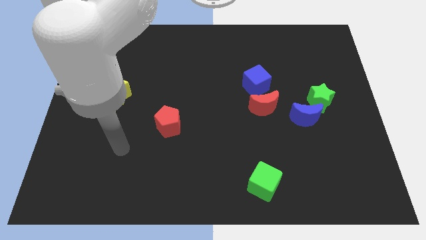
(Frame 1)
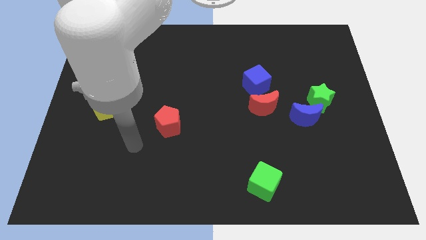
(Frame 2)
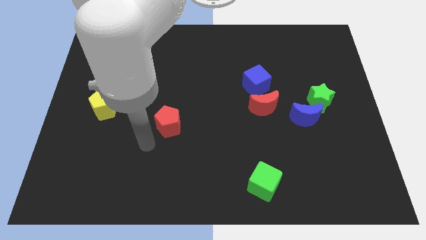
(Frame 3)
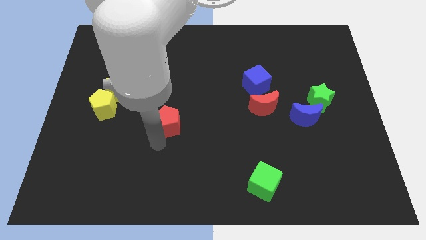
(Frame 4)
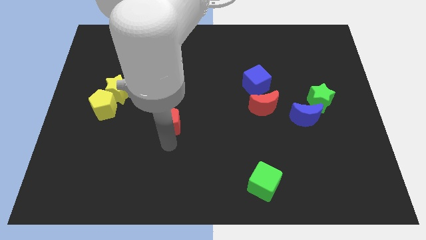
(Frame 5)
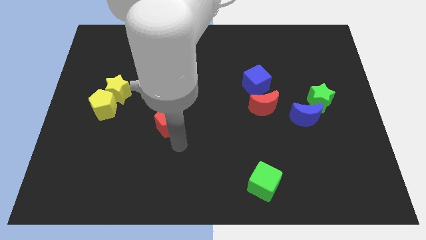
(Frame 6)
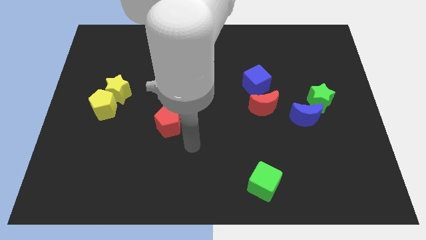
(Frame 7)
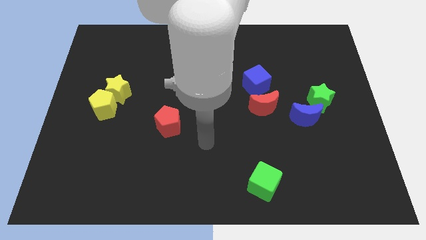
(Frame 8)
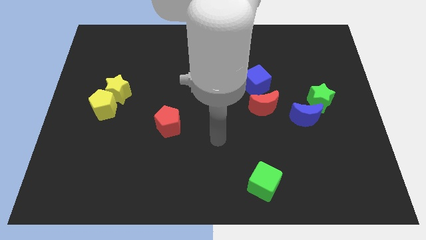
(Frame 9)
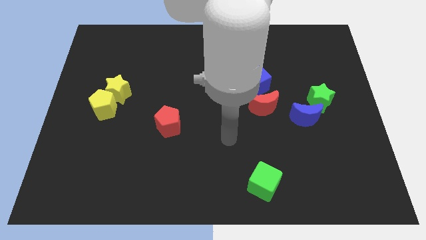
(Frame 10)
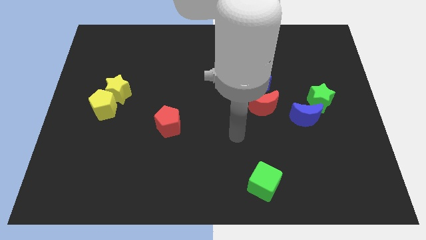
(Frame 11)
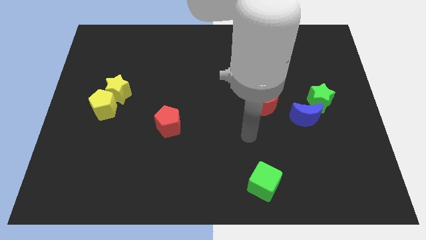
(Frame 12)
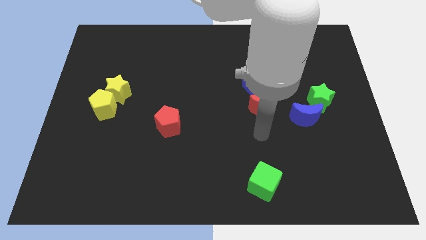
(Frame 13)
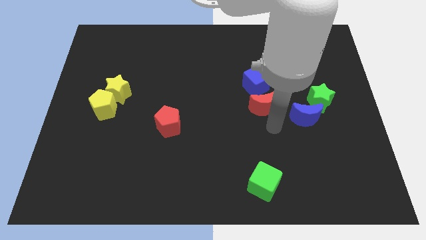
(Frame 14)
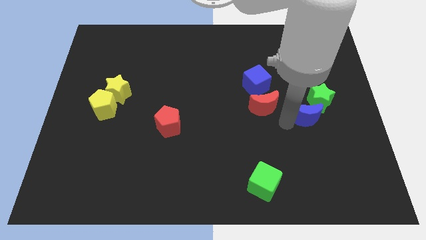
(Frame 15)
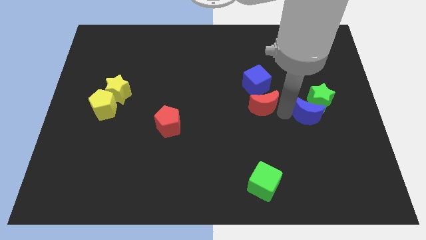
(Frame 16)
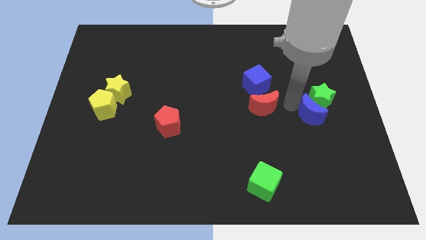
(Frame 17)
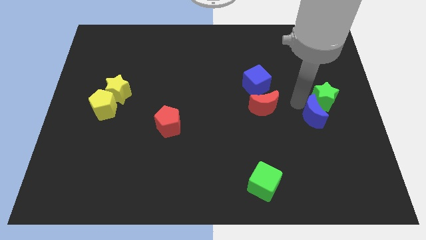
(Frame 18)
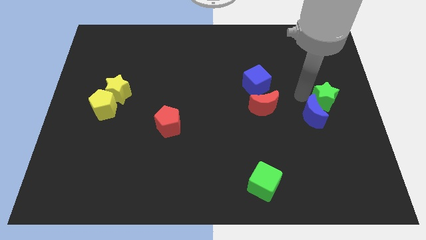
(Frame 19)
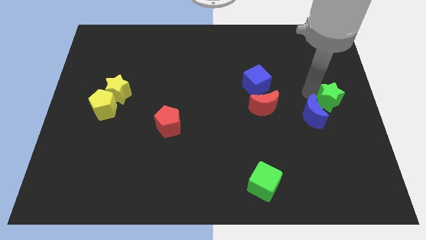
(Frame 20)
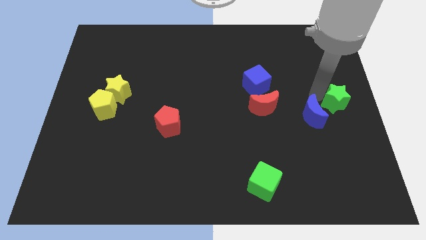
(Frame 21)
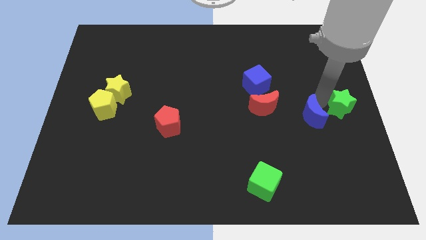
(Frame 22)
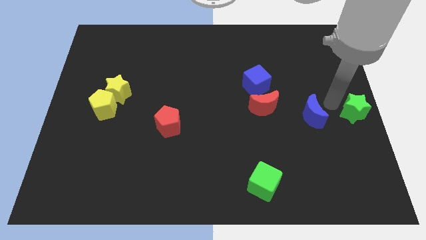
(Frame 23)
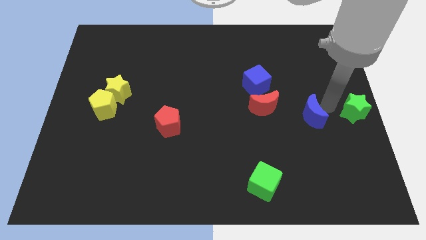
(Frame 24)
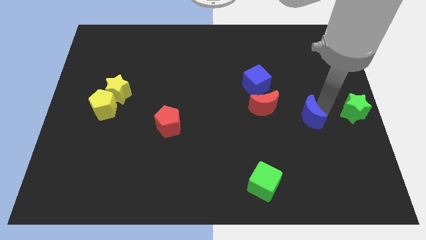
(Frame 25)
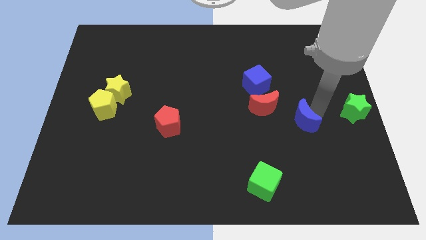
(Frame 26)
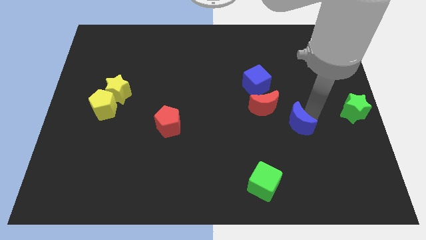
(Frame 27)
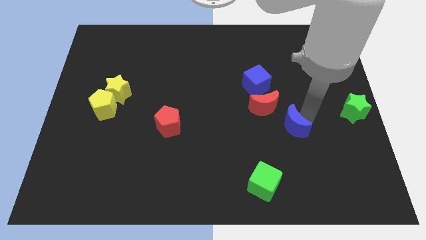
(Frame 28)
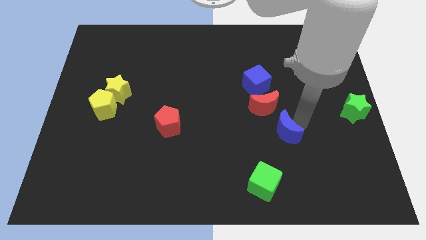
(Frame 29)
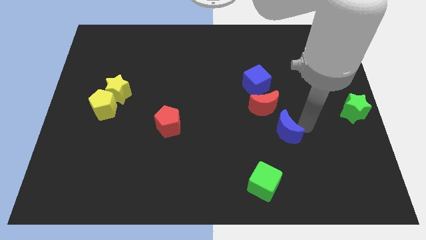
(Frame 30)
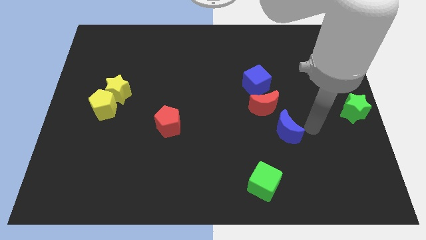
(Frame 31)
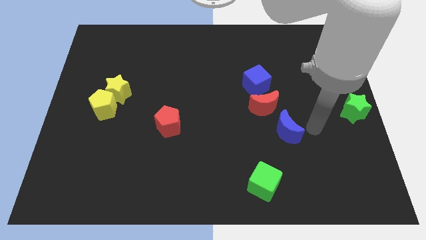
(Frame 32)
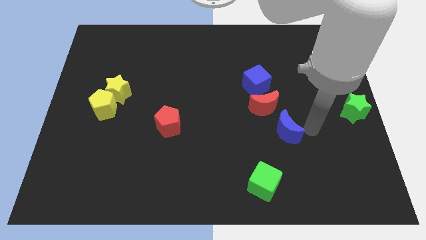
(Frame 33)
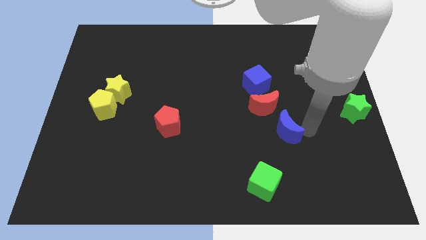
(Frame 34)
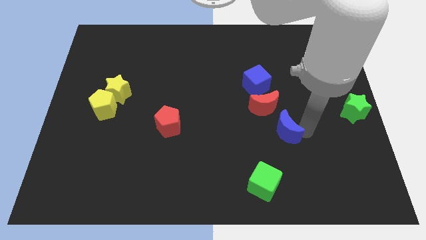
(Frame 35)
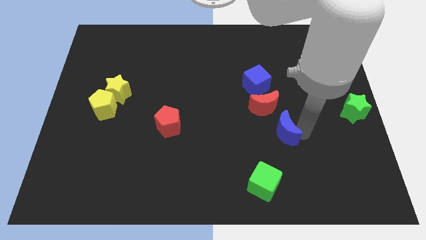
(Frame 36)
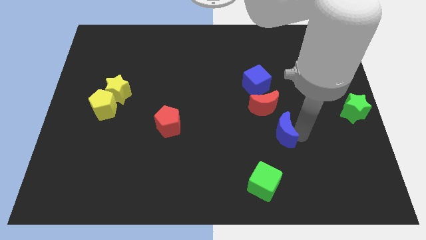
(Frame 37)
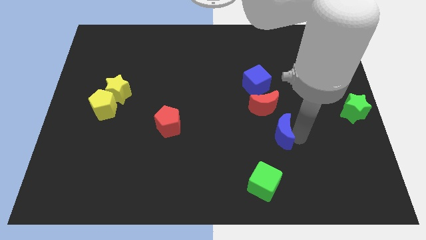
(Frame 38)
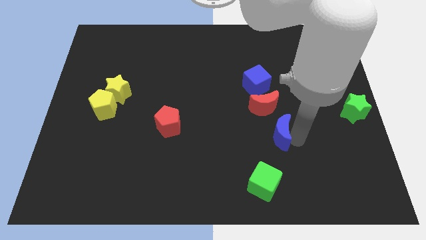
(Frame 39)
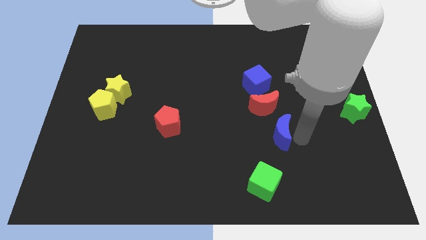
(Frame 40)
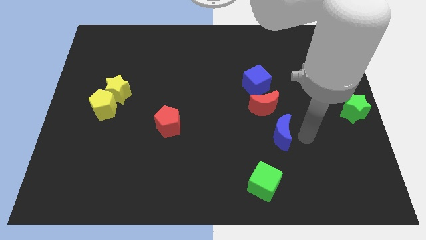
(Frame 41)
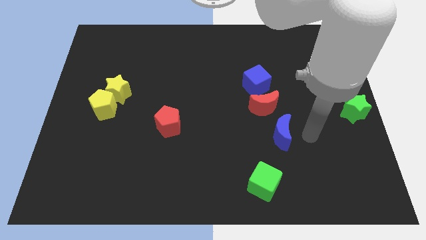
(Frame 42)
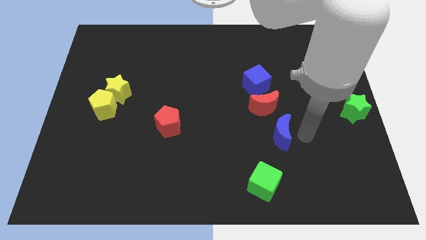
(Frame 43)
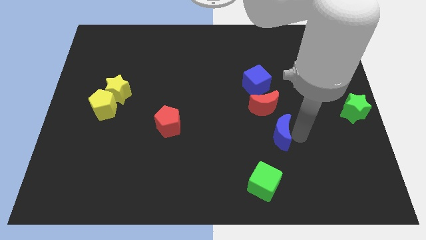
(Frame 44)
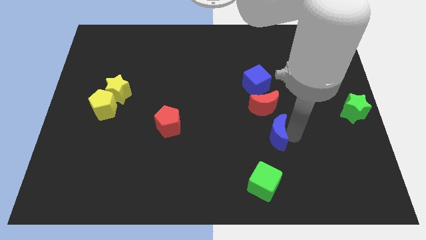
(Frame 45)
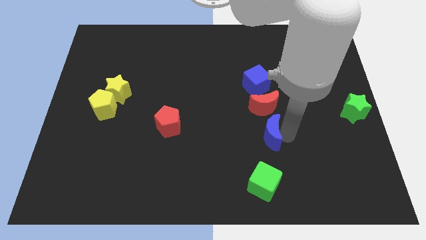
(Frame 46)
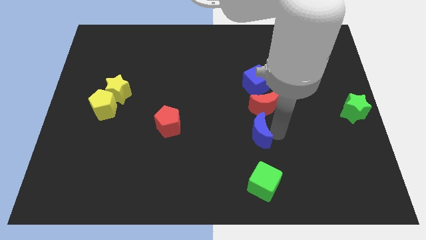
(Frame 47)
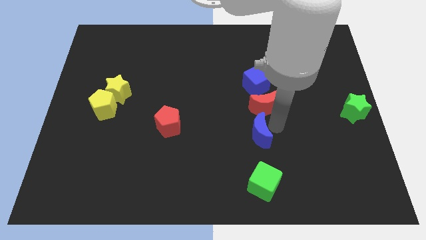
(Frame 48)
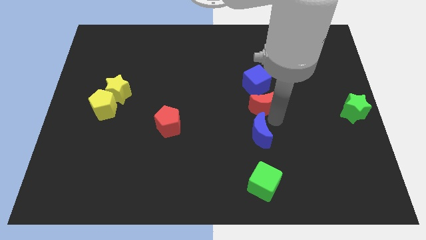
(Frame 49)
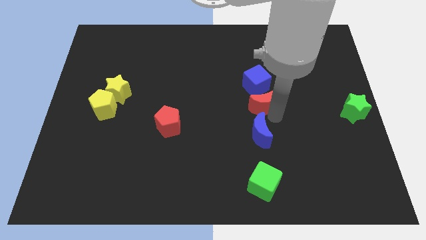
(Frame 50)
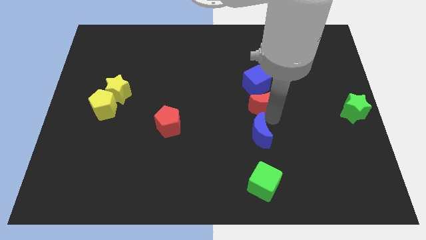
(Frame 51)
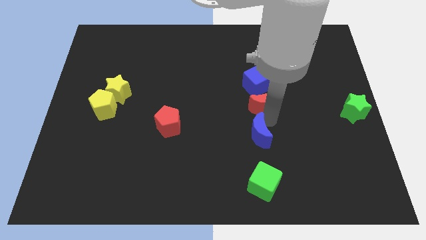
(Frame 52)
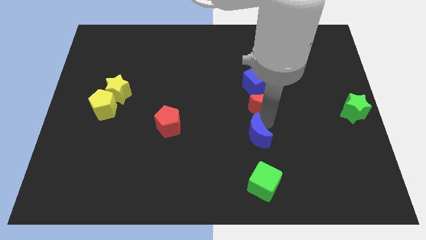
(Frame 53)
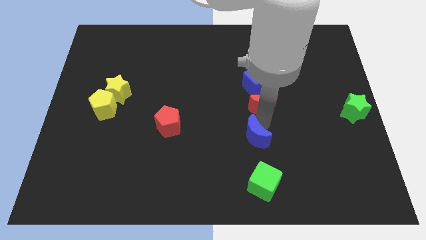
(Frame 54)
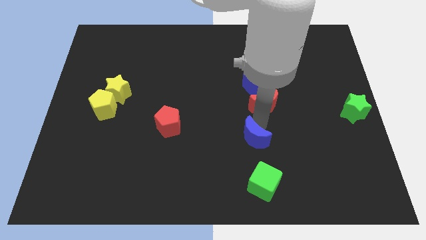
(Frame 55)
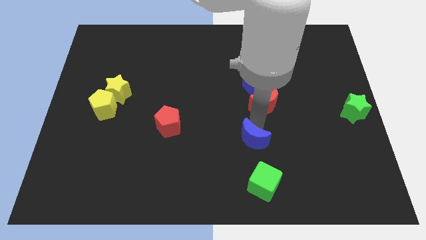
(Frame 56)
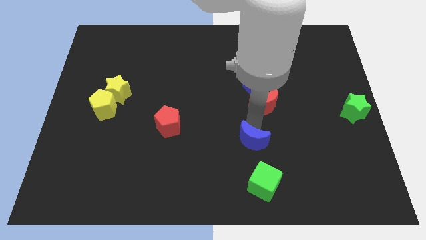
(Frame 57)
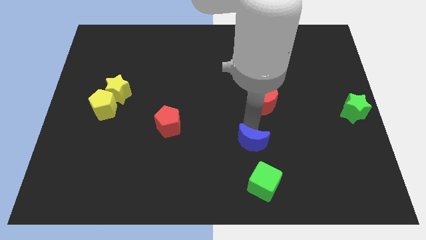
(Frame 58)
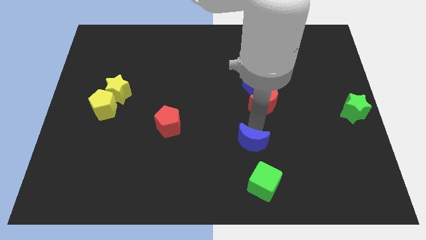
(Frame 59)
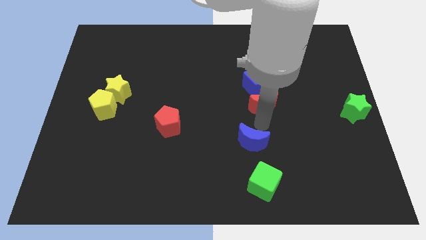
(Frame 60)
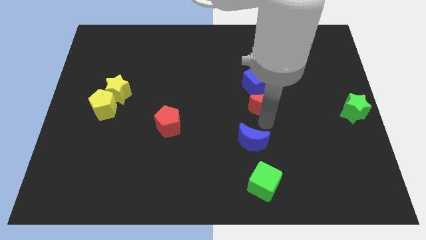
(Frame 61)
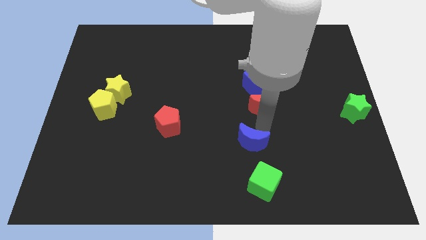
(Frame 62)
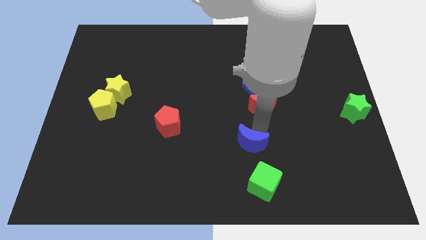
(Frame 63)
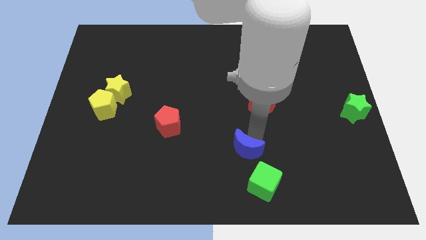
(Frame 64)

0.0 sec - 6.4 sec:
slide the blue moon diagonally up and to the left of the green cube
